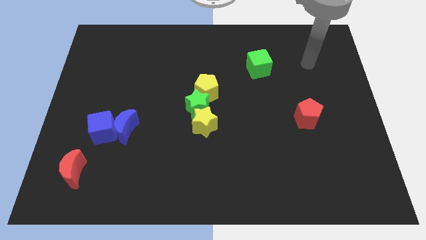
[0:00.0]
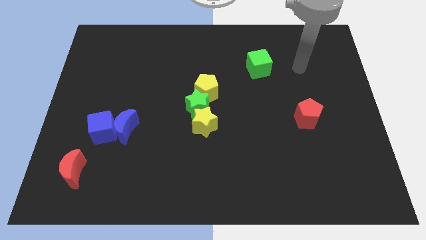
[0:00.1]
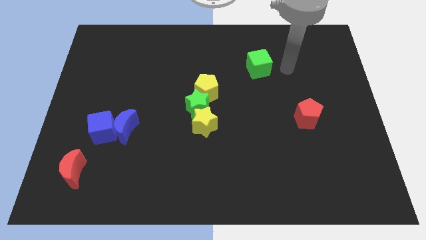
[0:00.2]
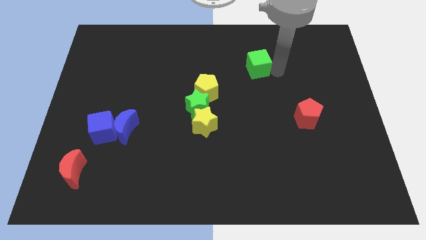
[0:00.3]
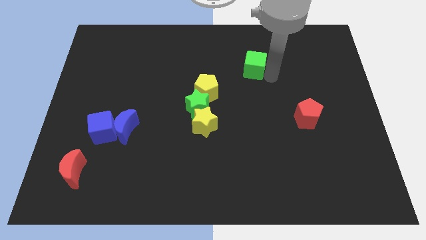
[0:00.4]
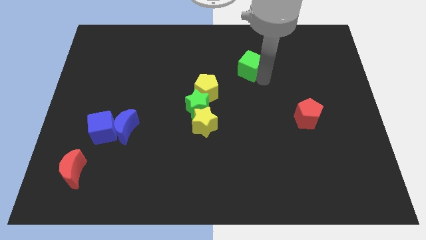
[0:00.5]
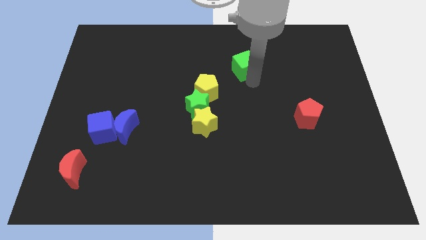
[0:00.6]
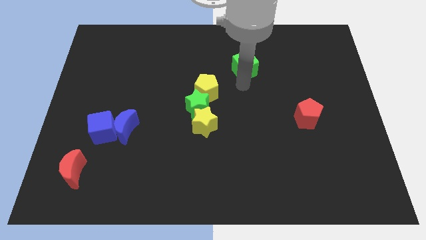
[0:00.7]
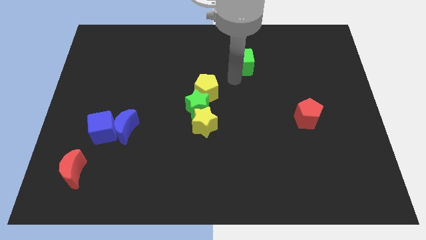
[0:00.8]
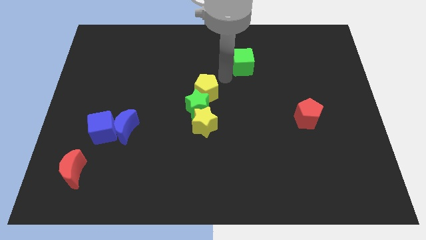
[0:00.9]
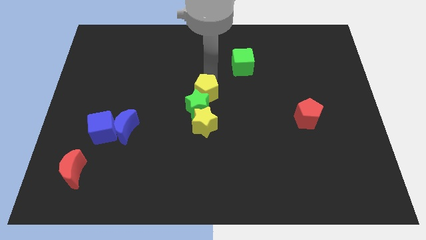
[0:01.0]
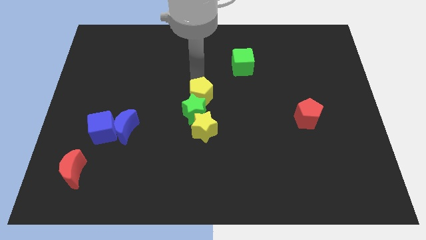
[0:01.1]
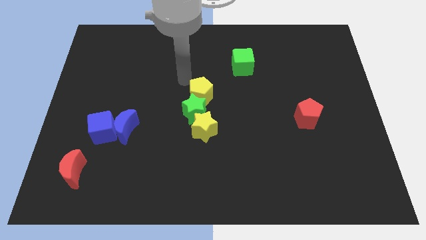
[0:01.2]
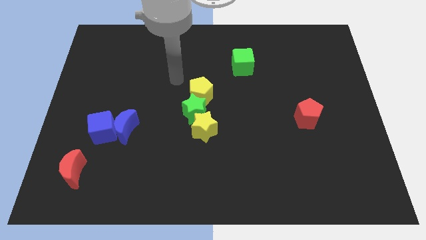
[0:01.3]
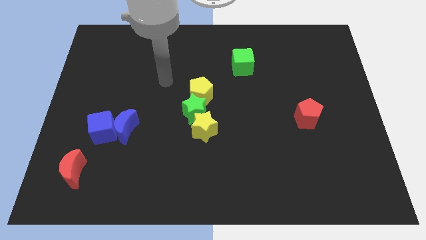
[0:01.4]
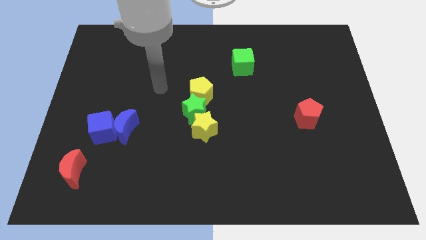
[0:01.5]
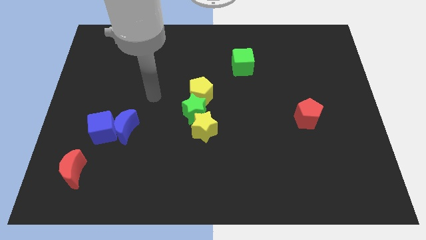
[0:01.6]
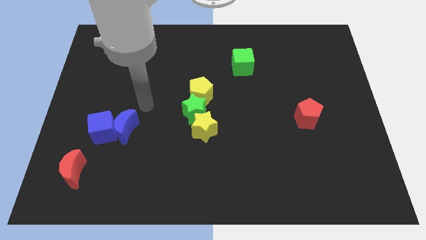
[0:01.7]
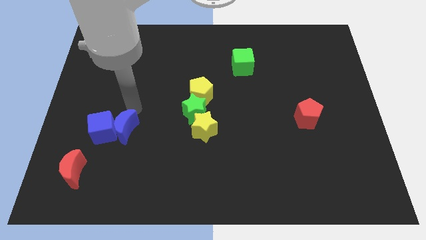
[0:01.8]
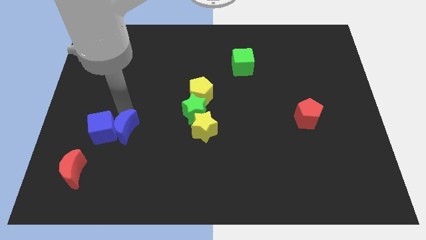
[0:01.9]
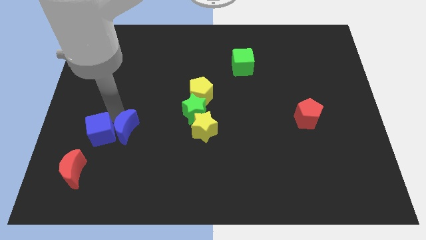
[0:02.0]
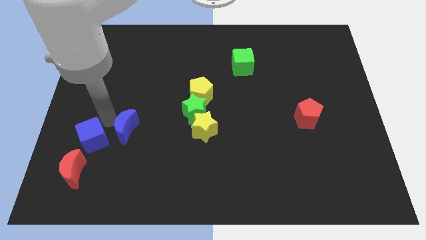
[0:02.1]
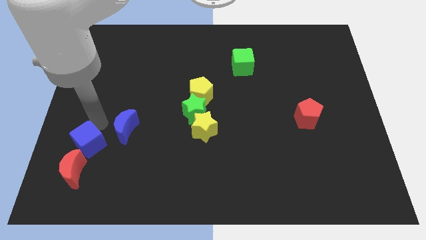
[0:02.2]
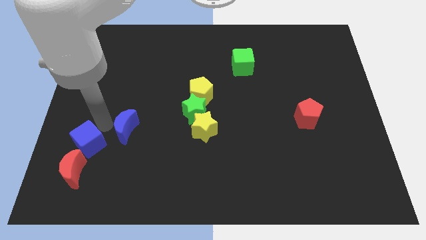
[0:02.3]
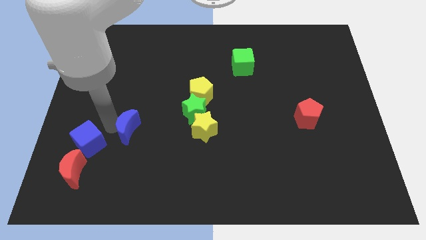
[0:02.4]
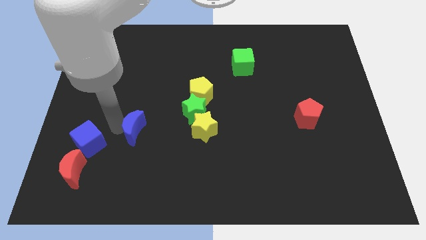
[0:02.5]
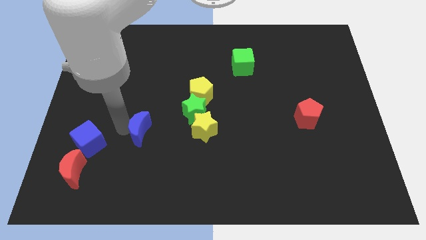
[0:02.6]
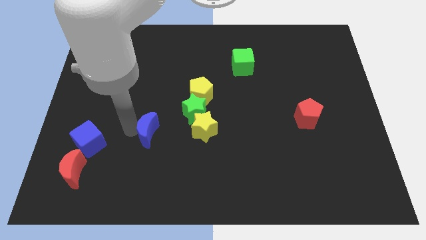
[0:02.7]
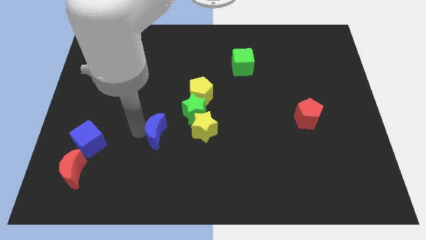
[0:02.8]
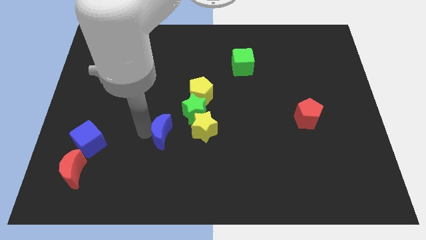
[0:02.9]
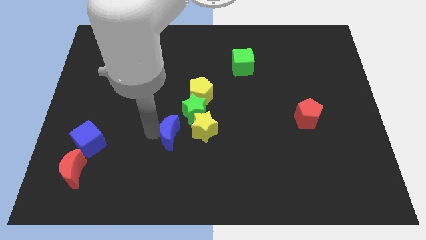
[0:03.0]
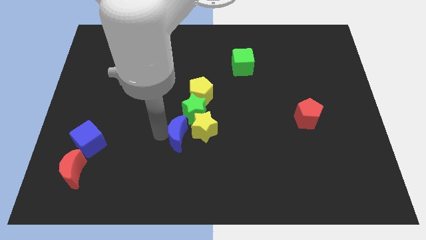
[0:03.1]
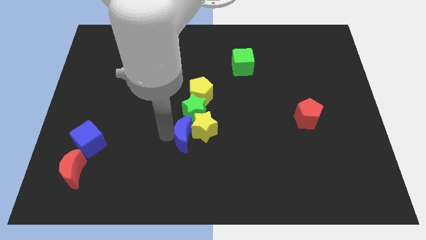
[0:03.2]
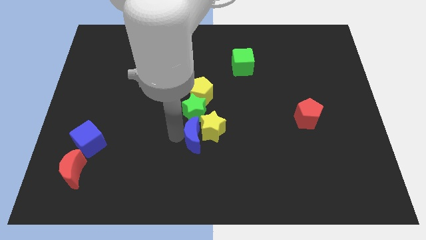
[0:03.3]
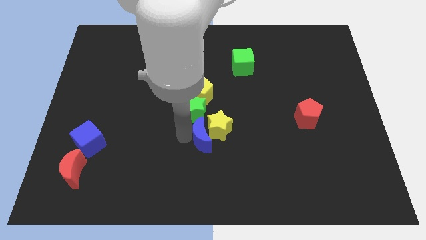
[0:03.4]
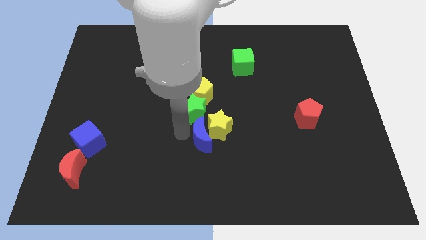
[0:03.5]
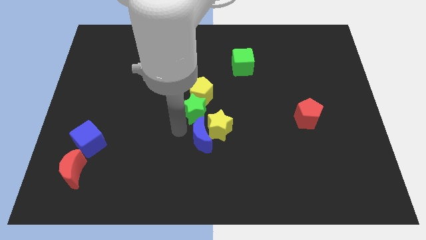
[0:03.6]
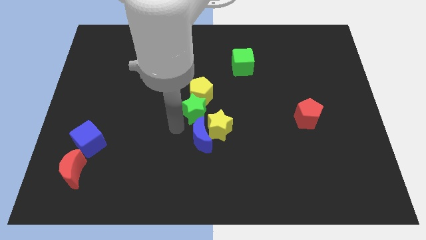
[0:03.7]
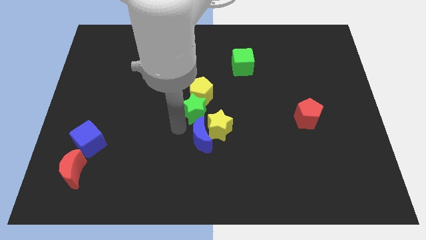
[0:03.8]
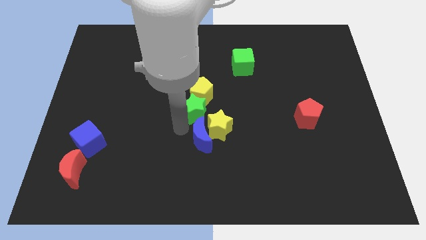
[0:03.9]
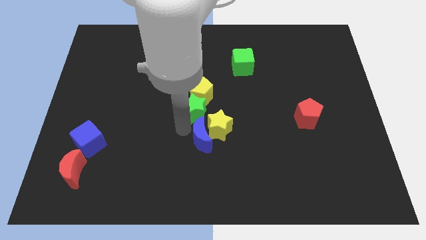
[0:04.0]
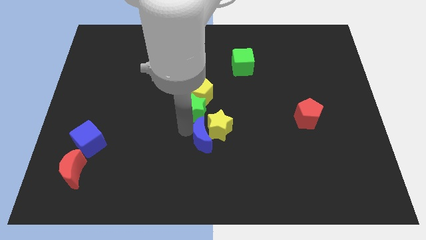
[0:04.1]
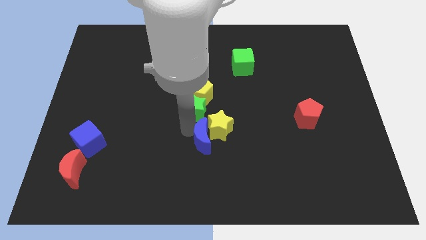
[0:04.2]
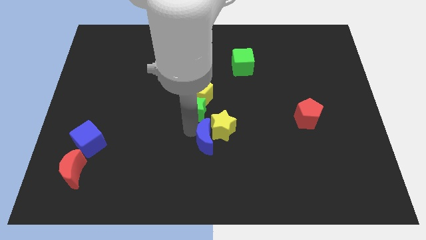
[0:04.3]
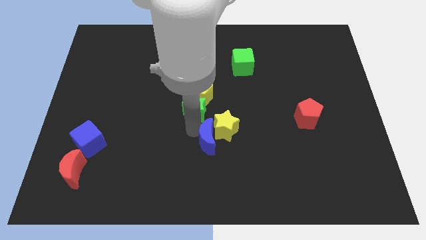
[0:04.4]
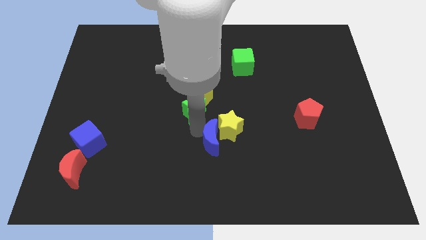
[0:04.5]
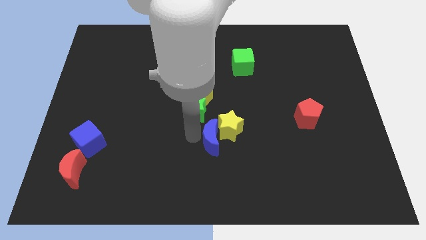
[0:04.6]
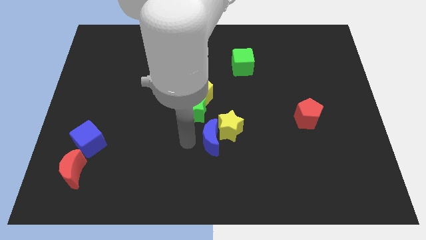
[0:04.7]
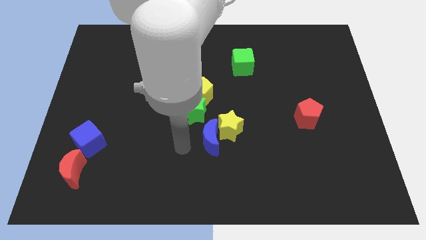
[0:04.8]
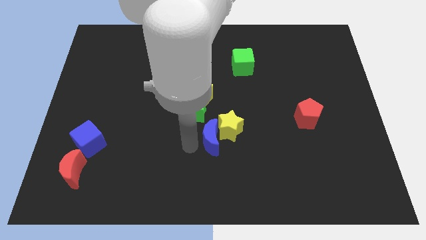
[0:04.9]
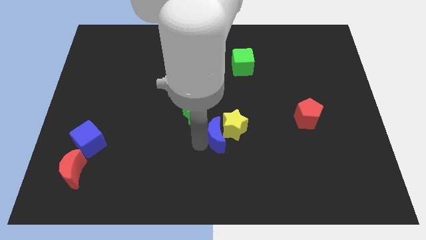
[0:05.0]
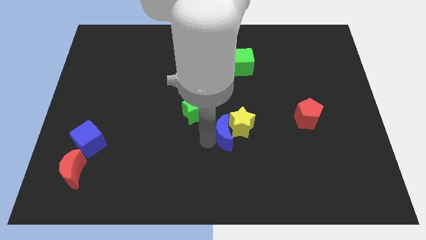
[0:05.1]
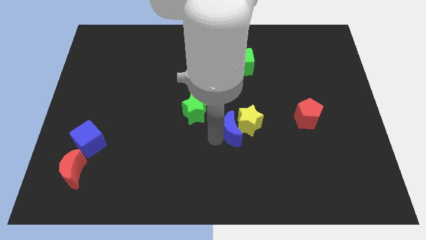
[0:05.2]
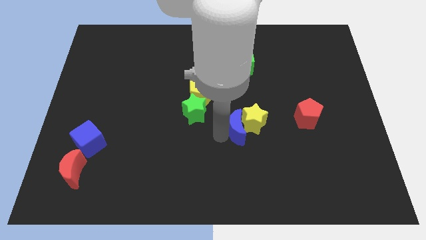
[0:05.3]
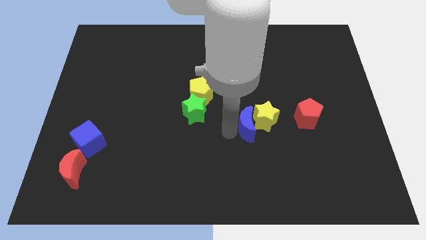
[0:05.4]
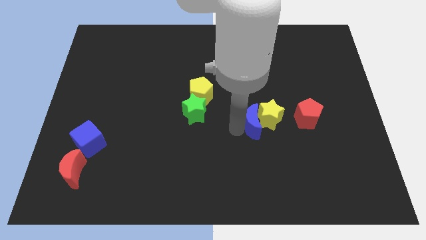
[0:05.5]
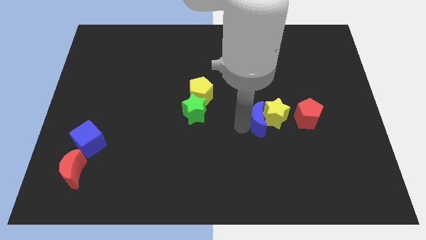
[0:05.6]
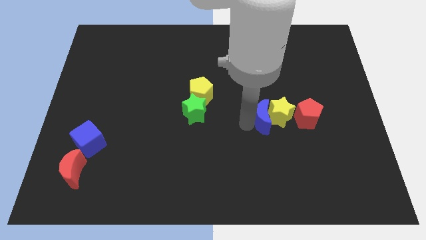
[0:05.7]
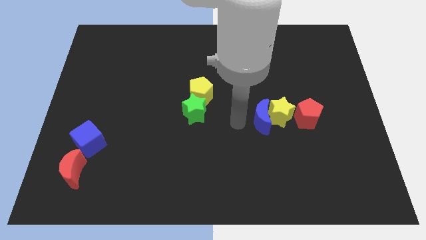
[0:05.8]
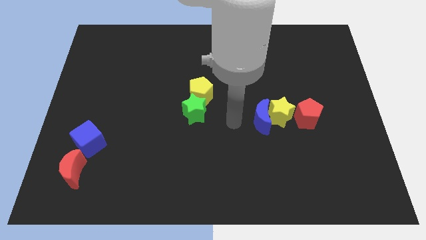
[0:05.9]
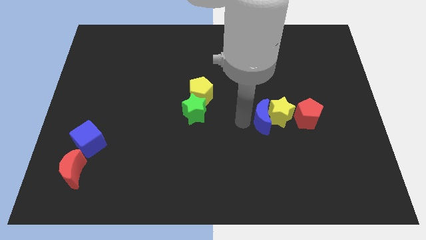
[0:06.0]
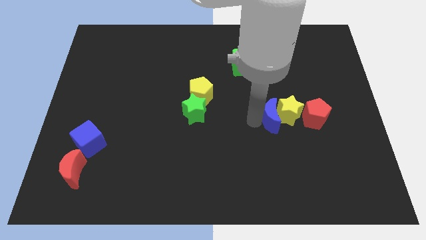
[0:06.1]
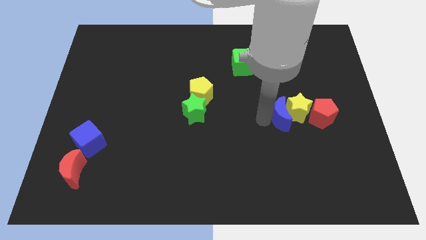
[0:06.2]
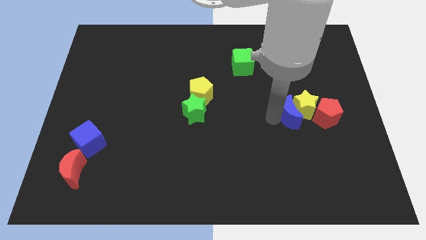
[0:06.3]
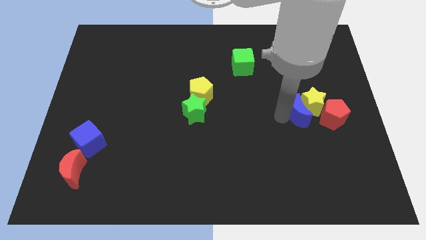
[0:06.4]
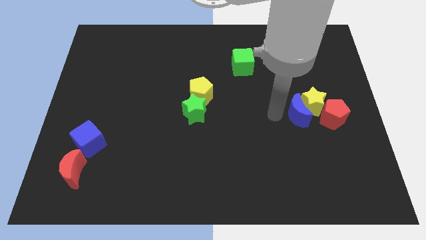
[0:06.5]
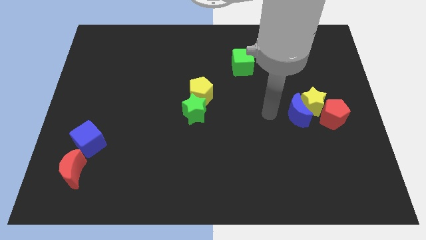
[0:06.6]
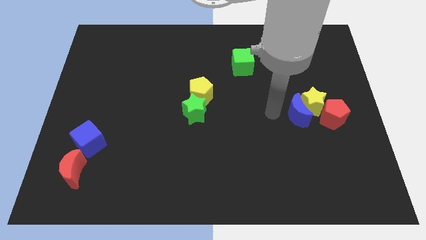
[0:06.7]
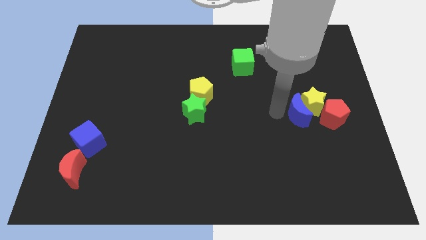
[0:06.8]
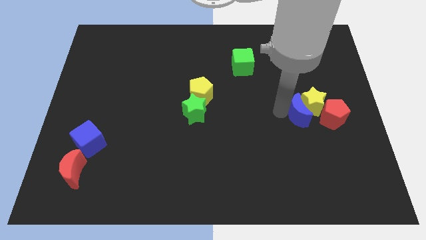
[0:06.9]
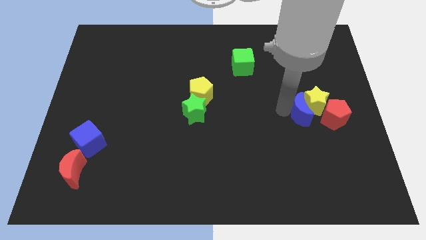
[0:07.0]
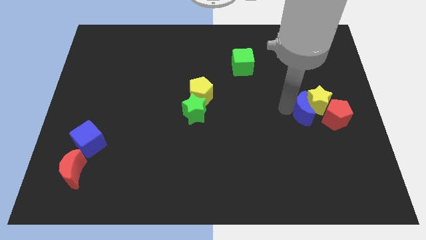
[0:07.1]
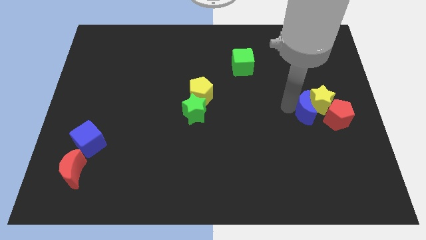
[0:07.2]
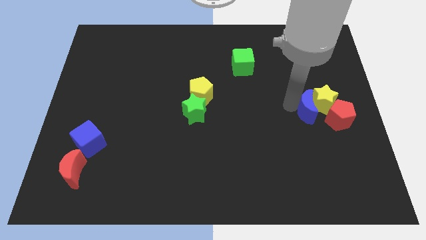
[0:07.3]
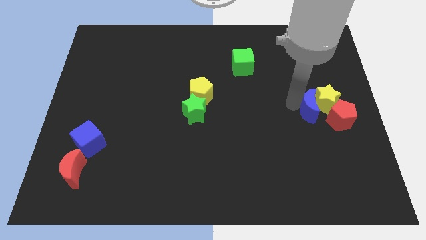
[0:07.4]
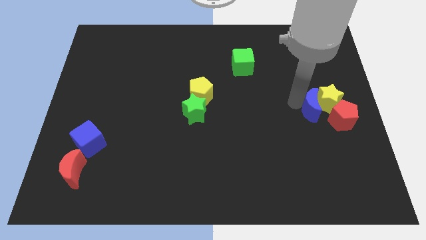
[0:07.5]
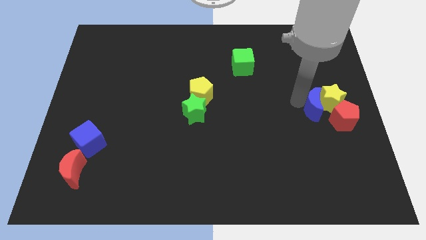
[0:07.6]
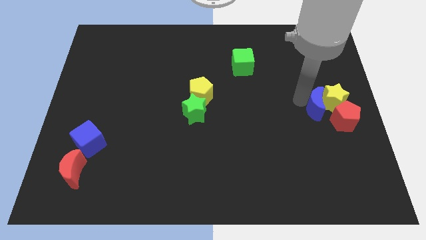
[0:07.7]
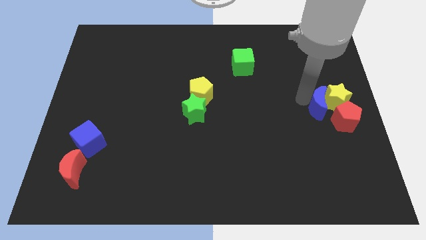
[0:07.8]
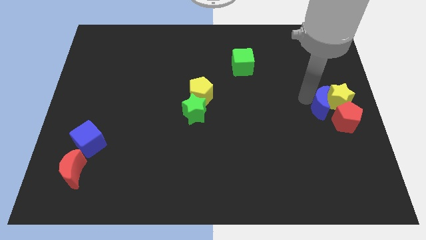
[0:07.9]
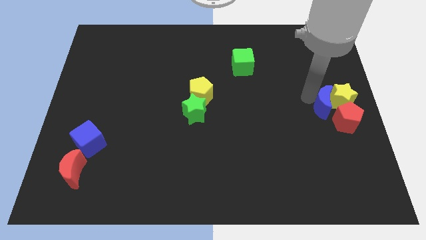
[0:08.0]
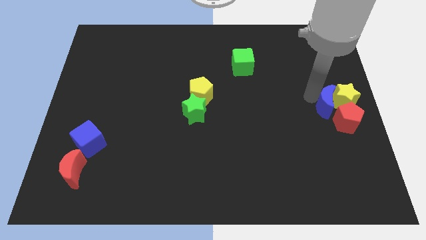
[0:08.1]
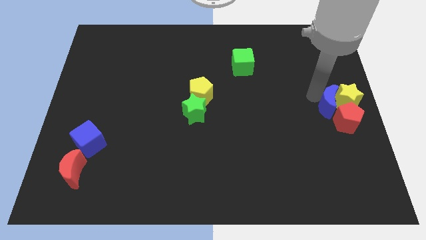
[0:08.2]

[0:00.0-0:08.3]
move the blue moon to the red pentagon
